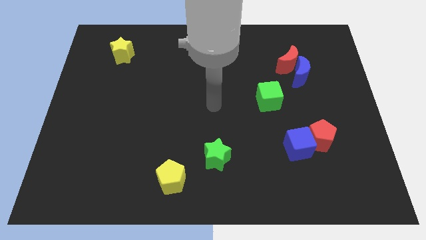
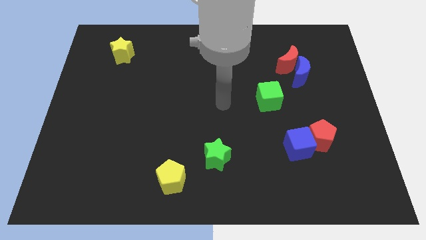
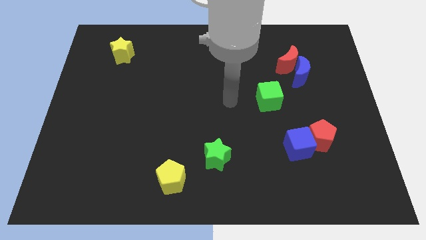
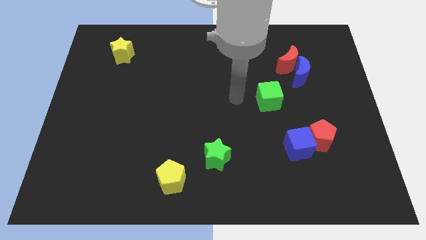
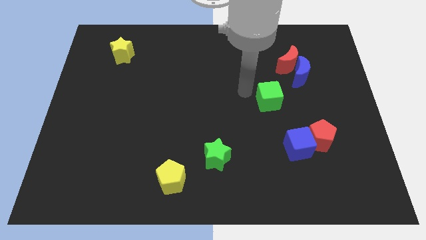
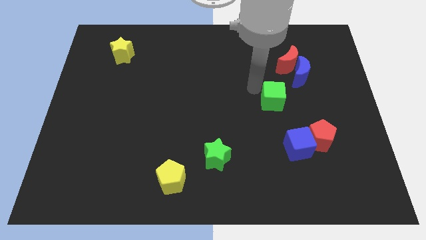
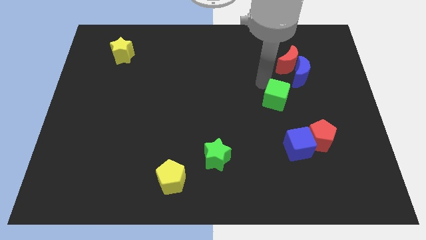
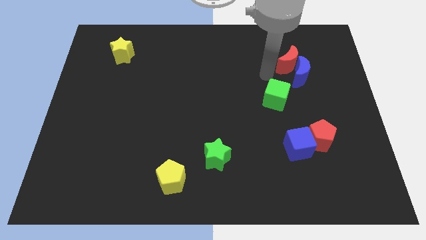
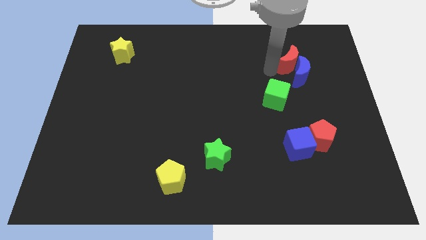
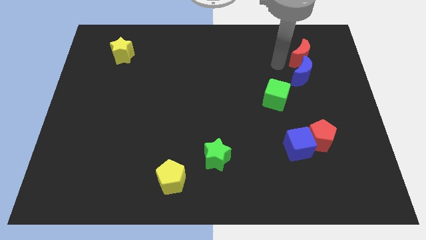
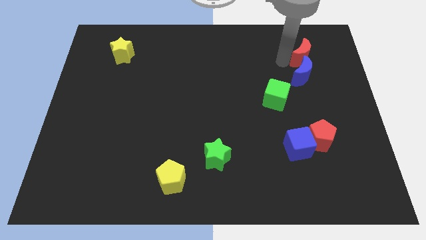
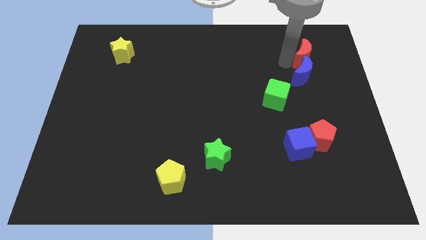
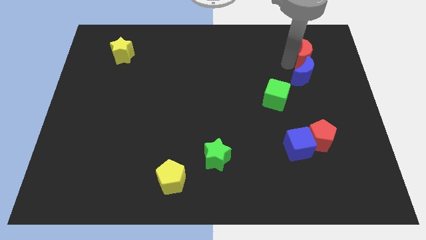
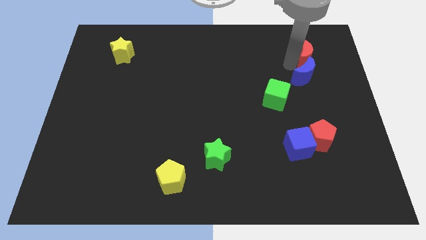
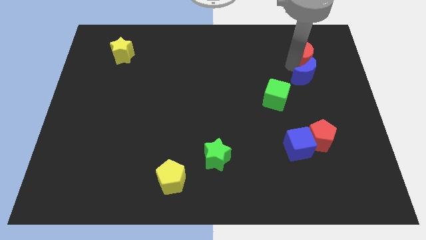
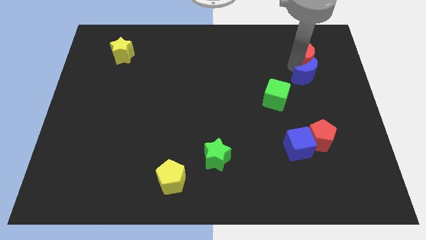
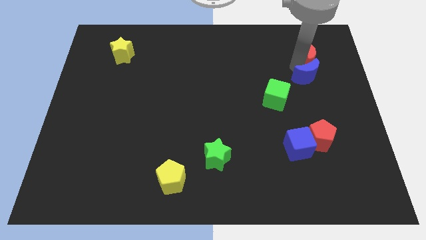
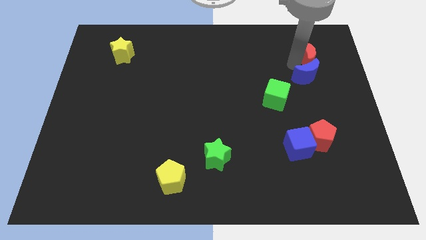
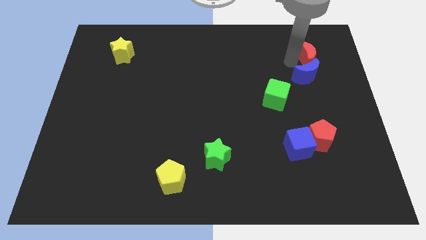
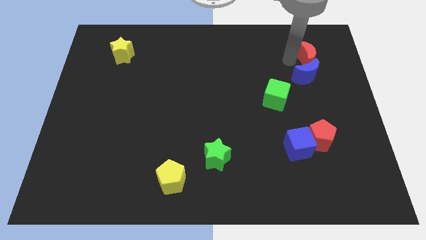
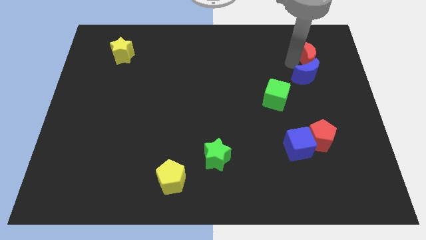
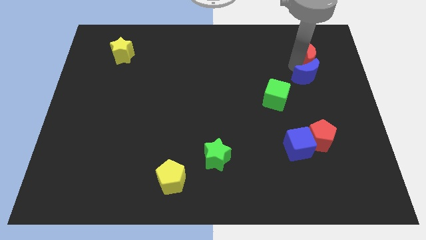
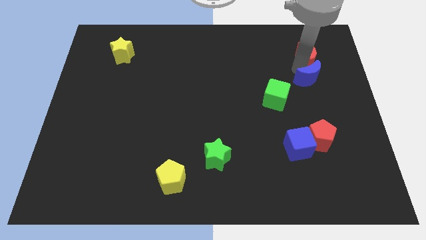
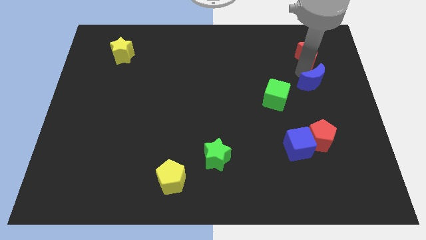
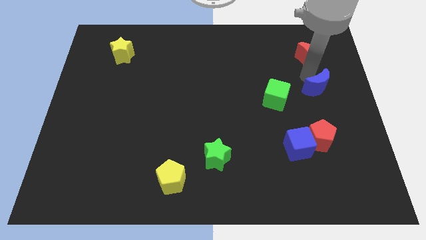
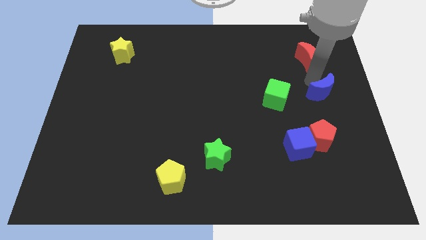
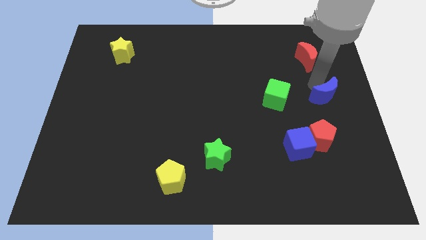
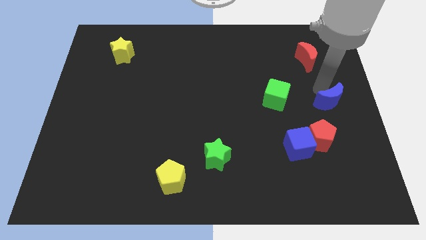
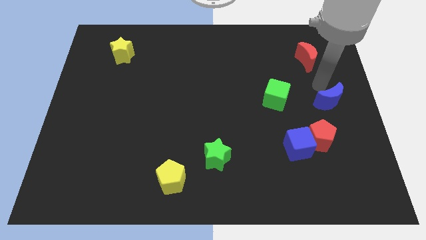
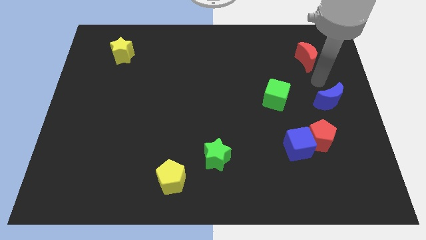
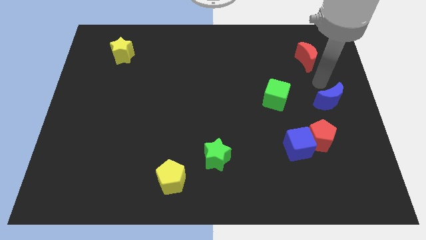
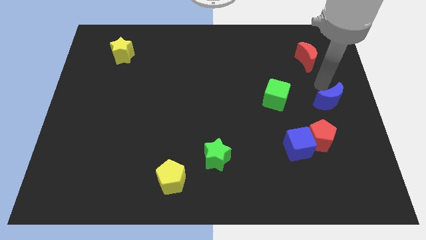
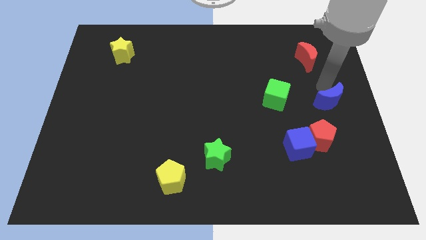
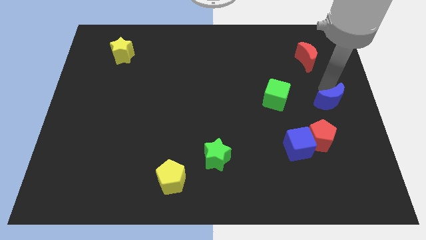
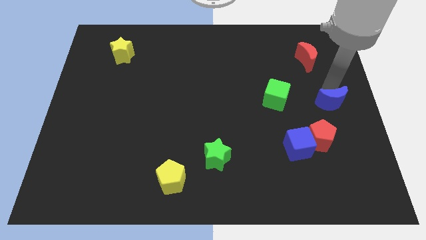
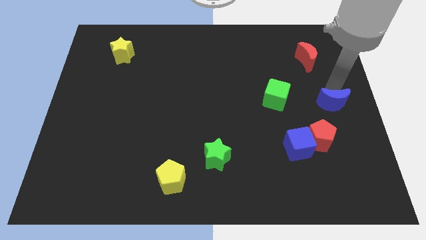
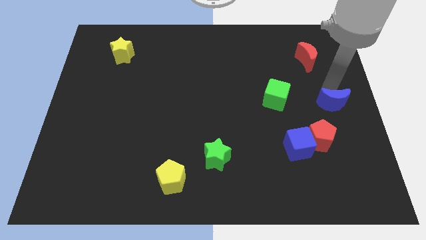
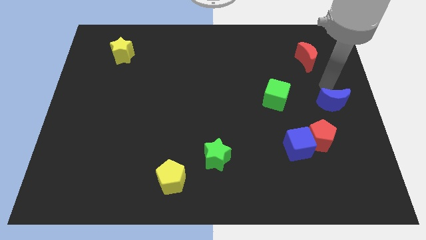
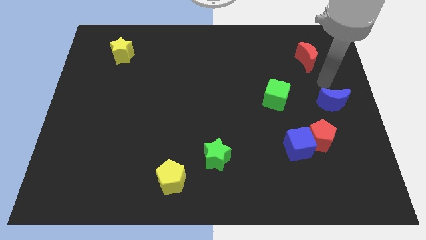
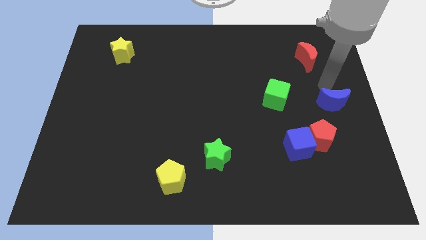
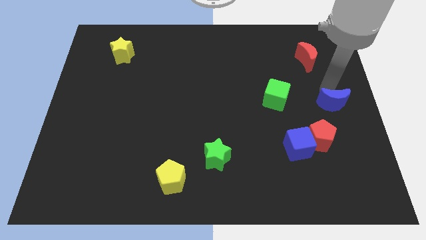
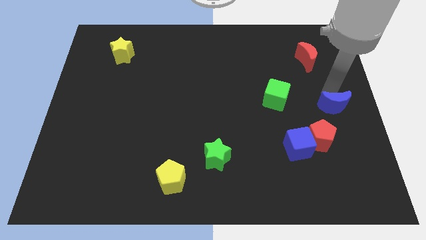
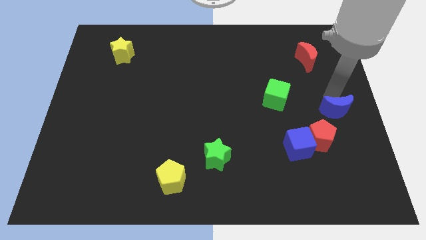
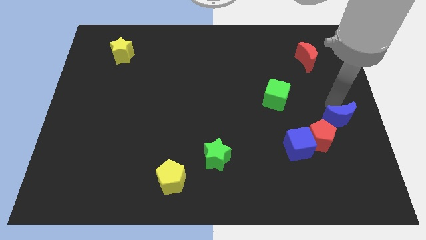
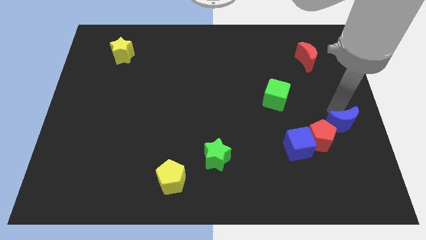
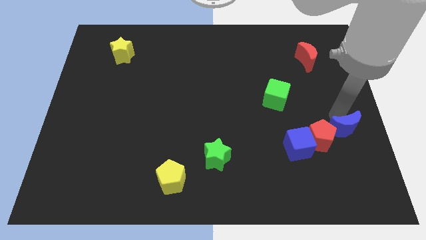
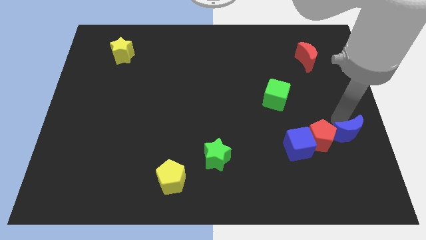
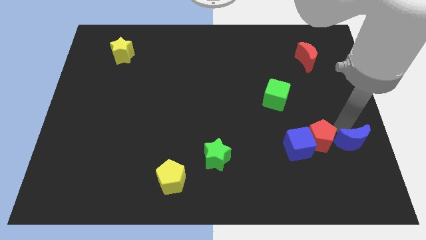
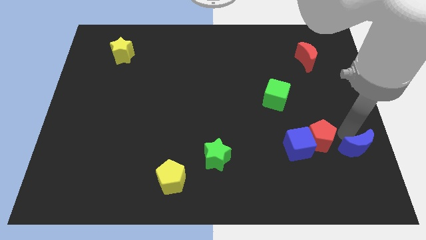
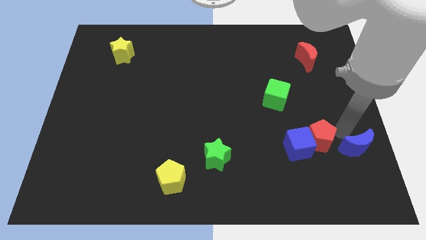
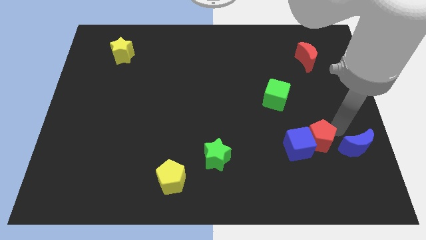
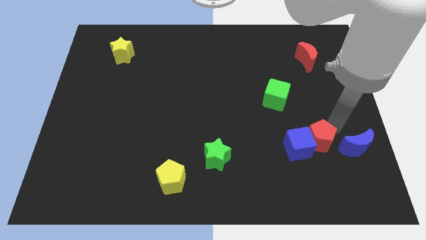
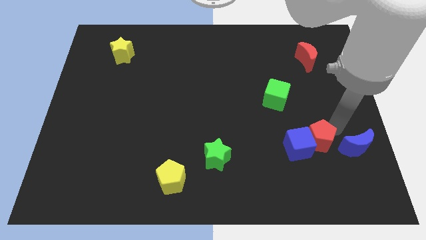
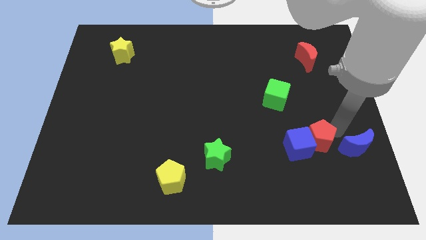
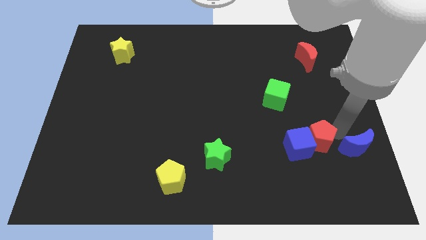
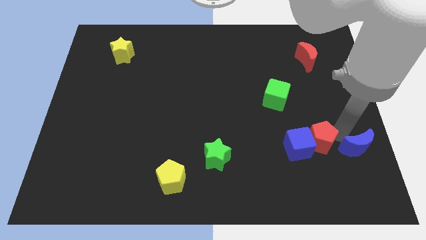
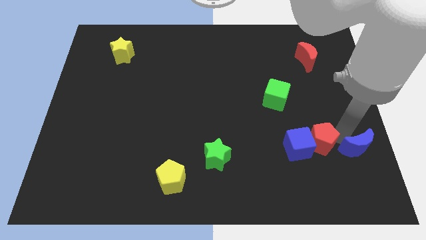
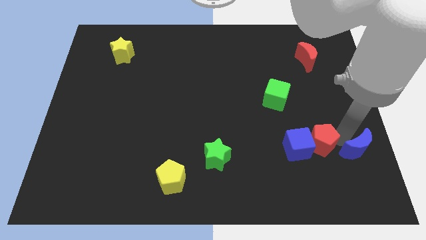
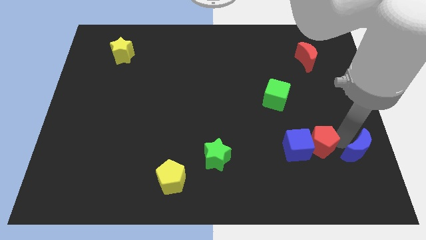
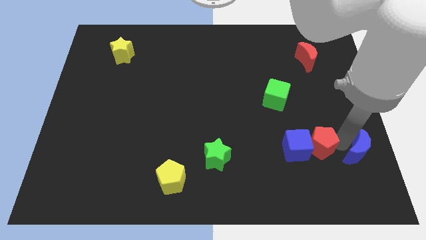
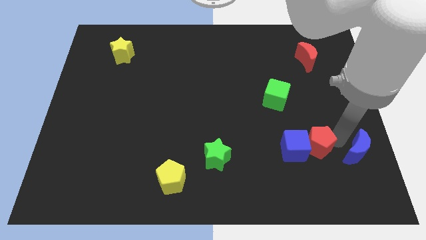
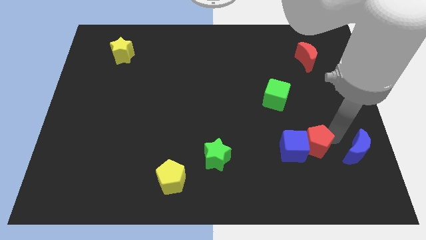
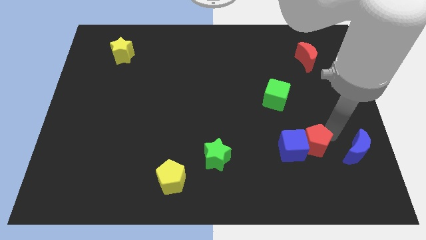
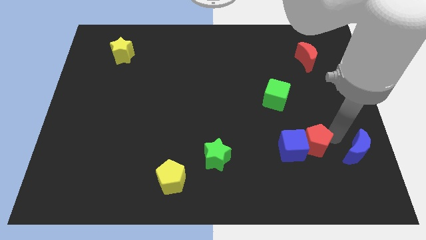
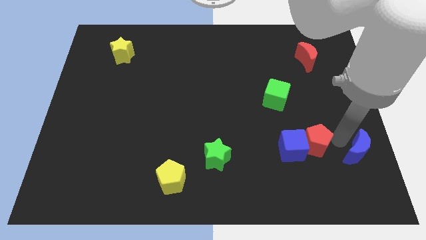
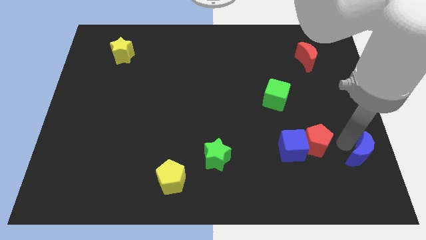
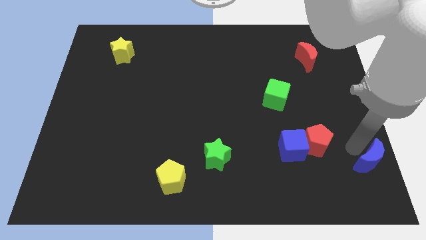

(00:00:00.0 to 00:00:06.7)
push the blue moon to the bottom right of the board
